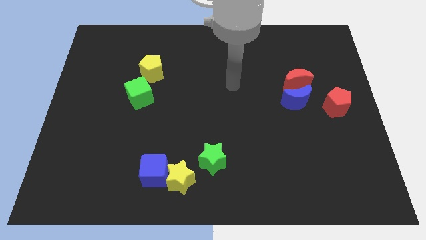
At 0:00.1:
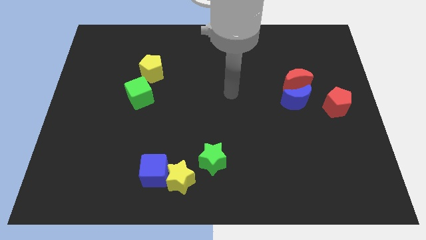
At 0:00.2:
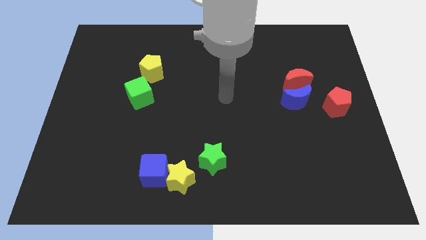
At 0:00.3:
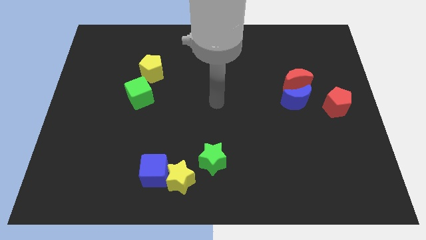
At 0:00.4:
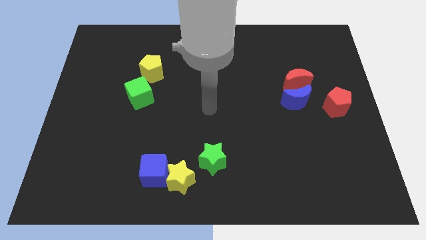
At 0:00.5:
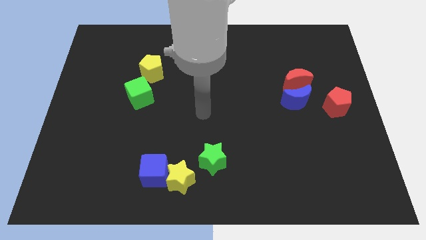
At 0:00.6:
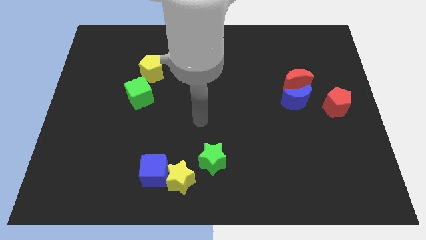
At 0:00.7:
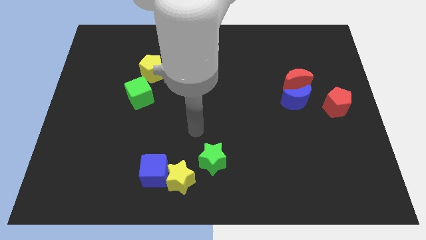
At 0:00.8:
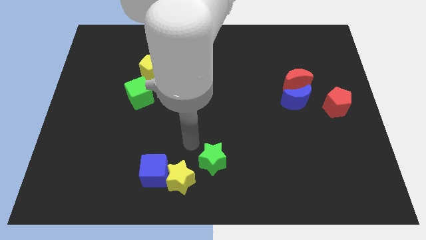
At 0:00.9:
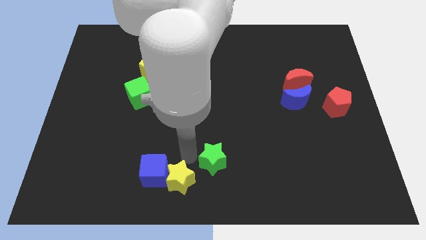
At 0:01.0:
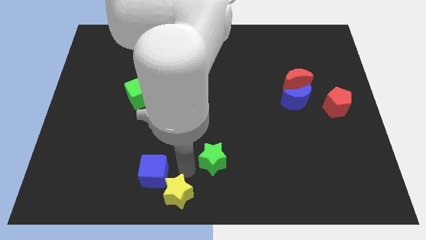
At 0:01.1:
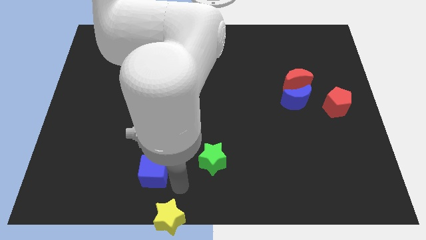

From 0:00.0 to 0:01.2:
move the blue cube away from the yellow star

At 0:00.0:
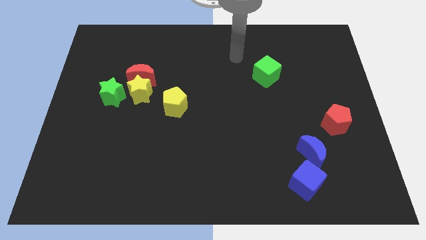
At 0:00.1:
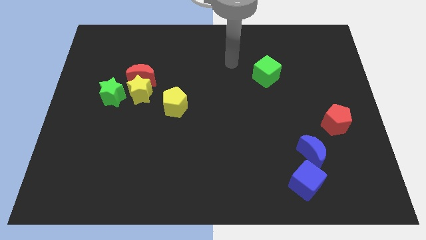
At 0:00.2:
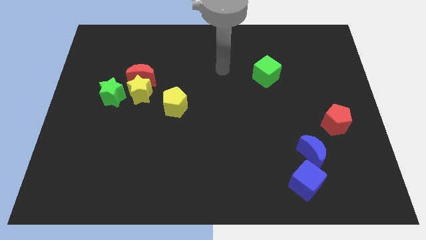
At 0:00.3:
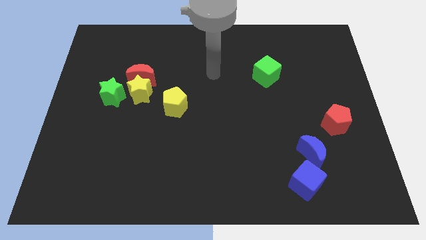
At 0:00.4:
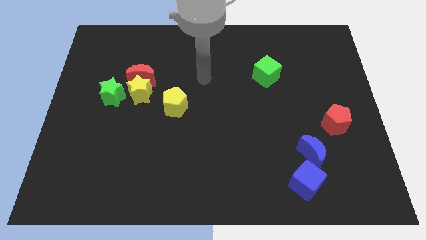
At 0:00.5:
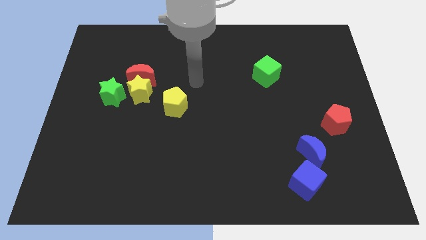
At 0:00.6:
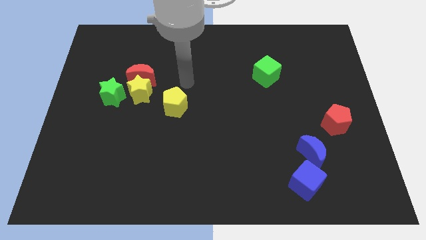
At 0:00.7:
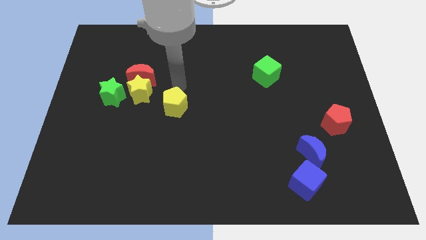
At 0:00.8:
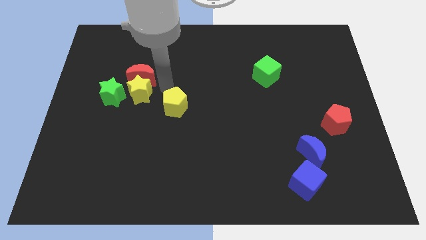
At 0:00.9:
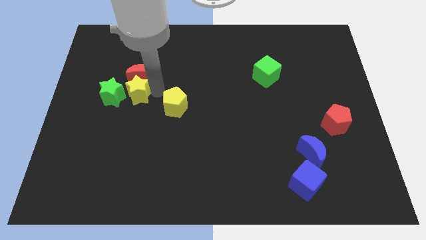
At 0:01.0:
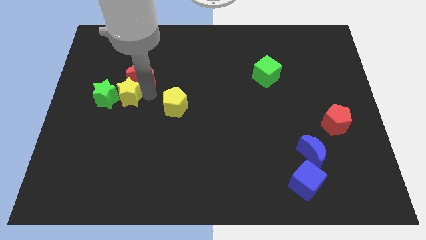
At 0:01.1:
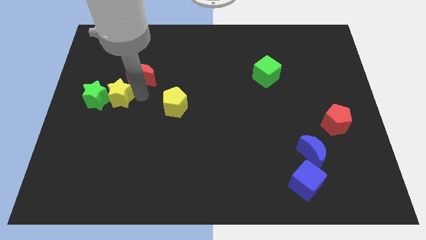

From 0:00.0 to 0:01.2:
pull the red moon apart from the yellow star and green star

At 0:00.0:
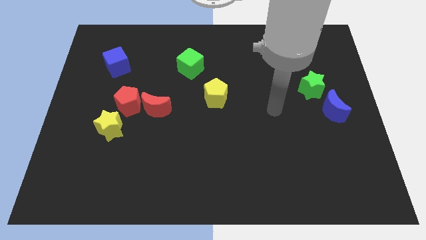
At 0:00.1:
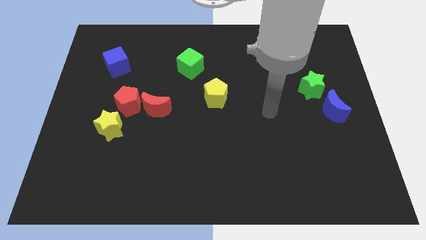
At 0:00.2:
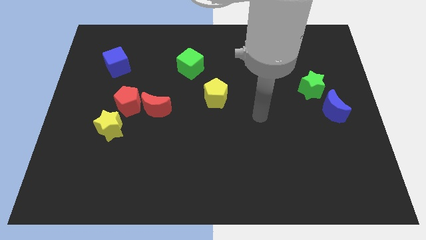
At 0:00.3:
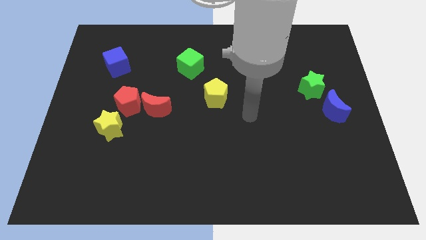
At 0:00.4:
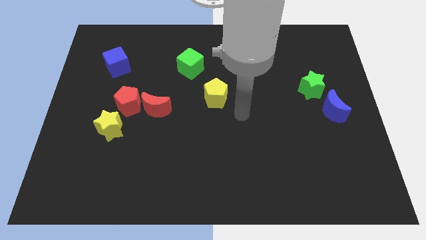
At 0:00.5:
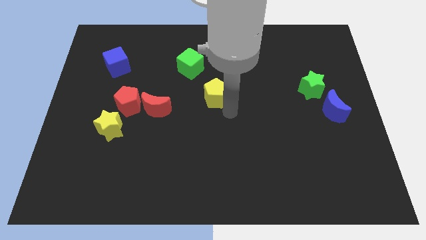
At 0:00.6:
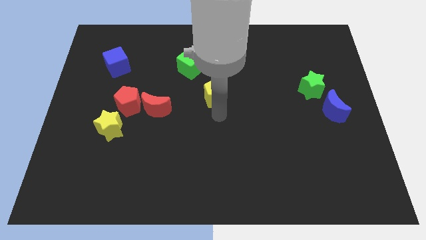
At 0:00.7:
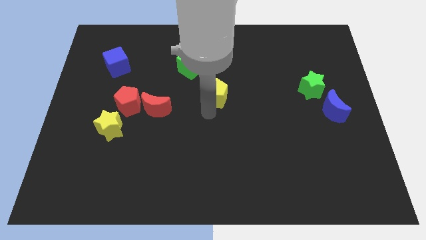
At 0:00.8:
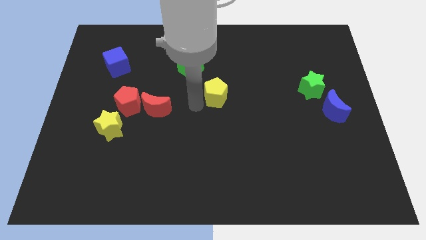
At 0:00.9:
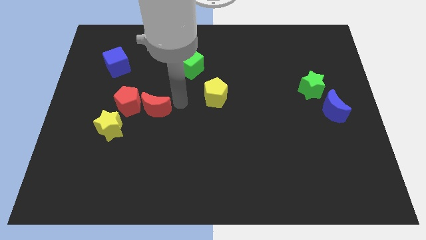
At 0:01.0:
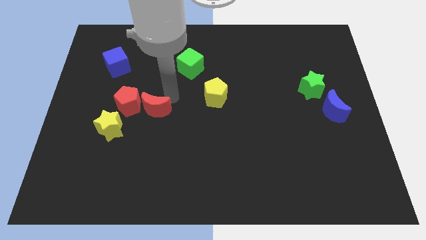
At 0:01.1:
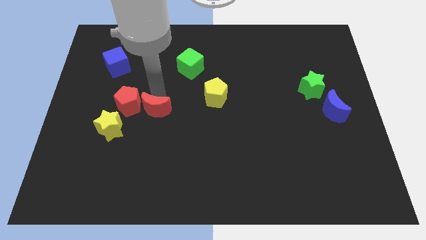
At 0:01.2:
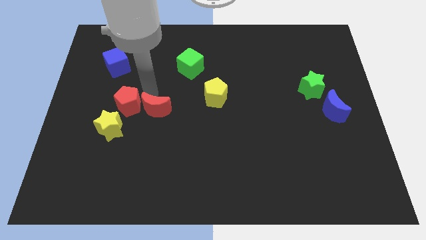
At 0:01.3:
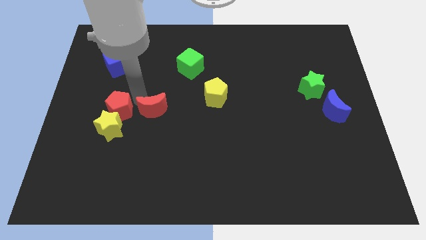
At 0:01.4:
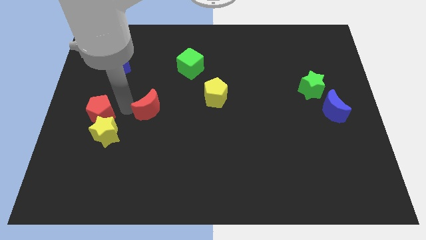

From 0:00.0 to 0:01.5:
separate the red moon from the red pentagon

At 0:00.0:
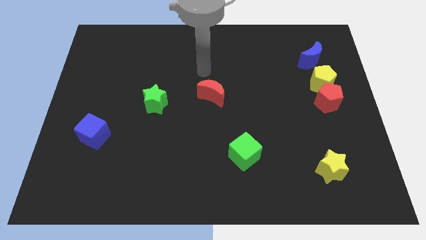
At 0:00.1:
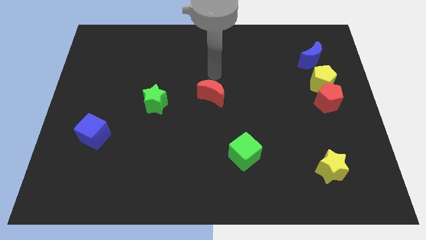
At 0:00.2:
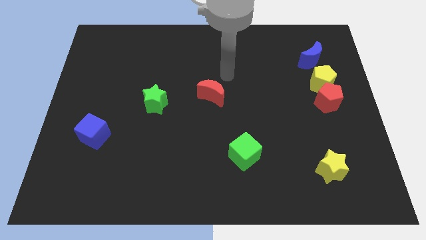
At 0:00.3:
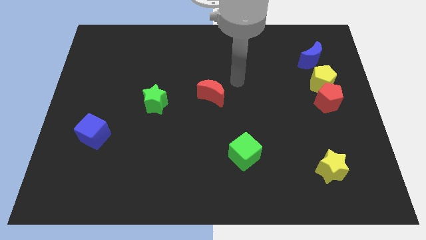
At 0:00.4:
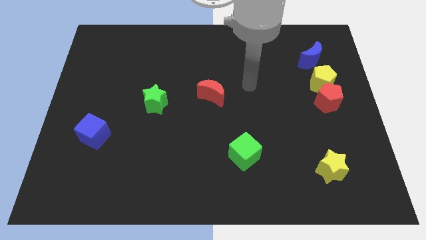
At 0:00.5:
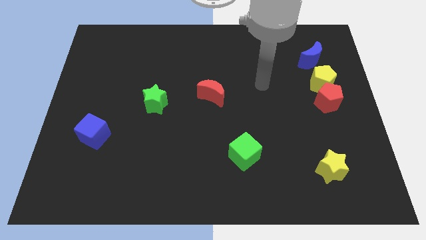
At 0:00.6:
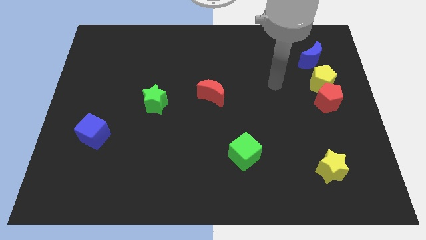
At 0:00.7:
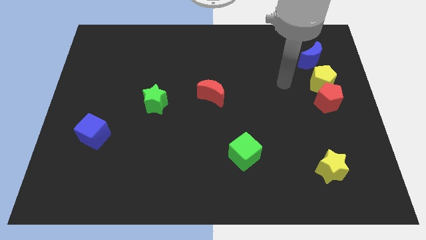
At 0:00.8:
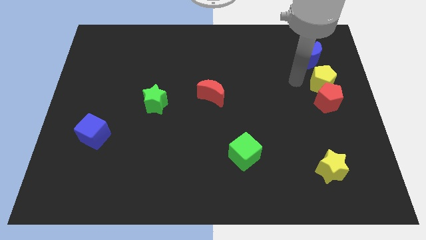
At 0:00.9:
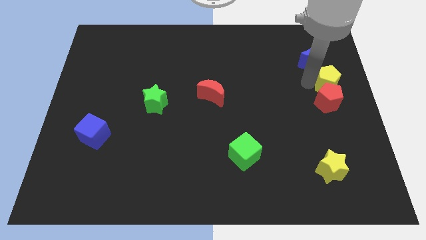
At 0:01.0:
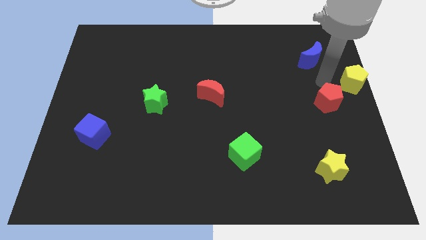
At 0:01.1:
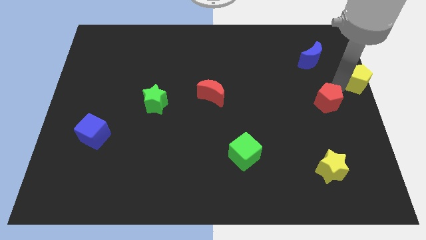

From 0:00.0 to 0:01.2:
separate the red pentagon from the yellow pentagon

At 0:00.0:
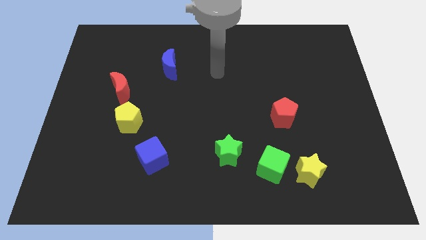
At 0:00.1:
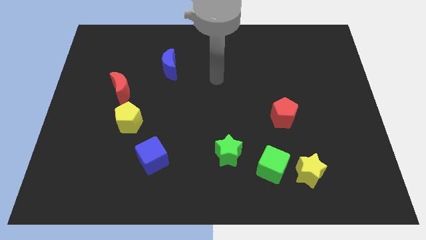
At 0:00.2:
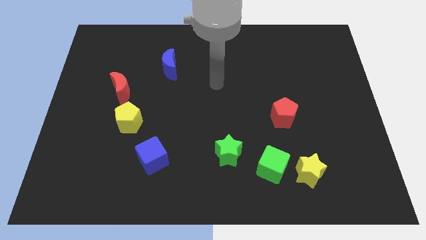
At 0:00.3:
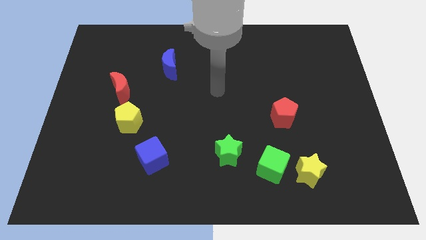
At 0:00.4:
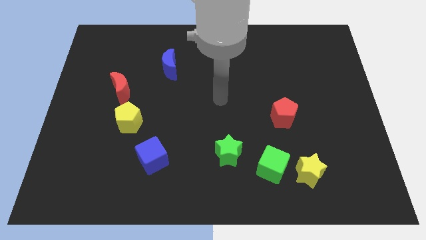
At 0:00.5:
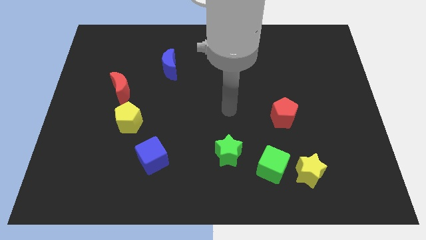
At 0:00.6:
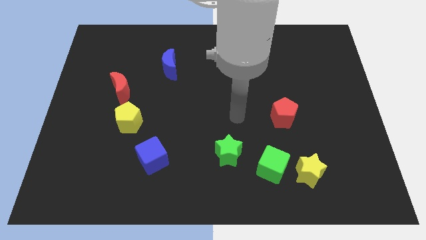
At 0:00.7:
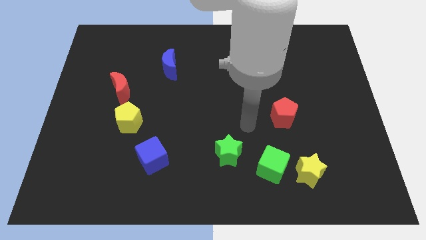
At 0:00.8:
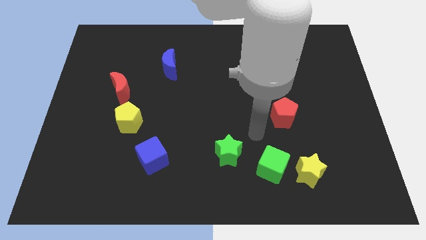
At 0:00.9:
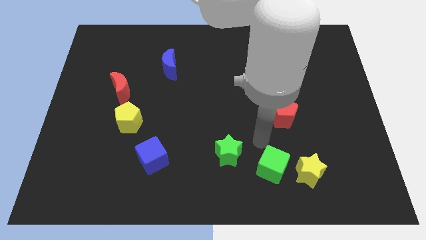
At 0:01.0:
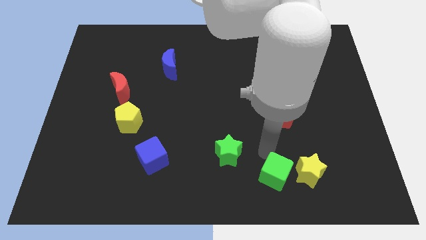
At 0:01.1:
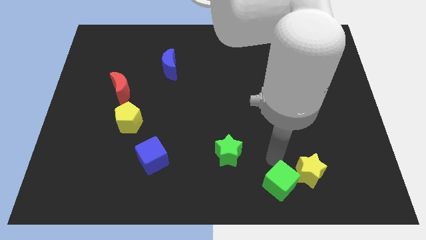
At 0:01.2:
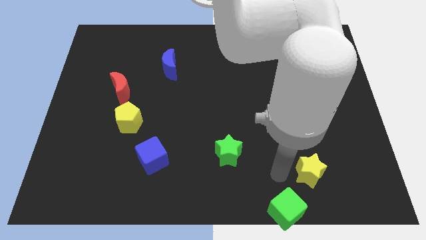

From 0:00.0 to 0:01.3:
pull the yellow star apart from the green cube

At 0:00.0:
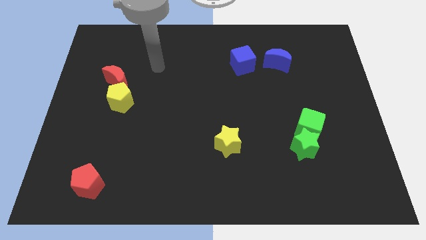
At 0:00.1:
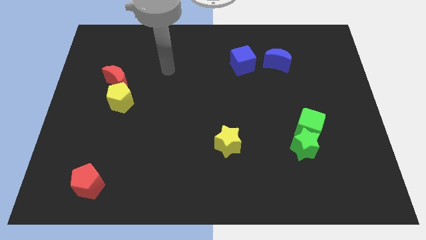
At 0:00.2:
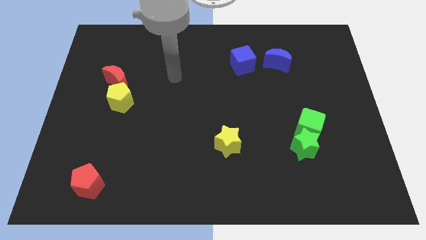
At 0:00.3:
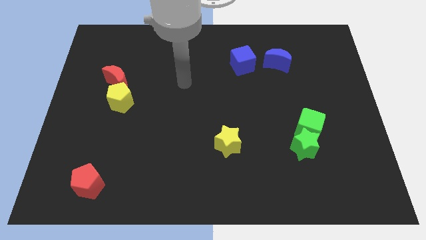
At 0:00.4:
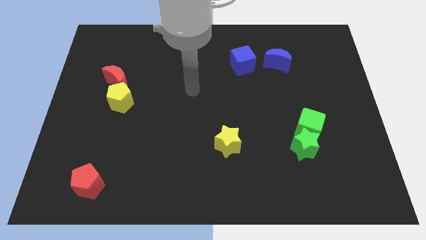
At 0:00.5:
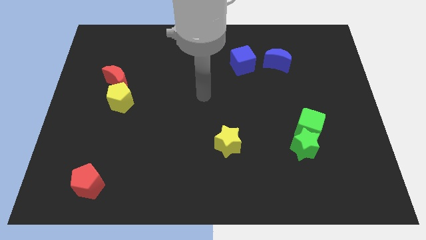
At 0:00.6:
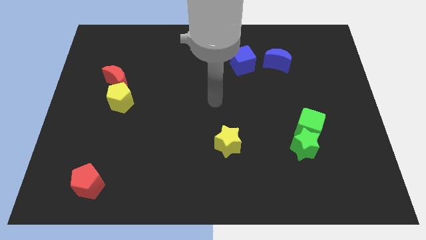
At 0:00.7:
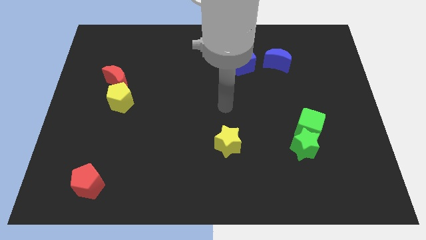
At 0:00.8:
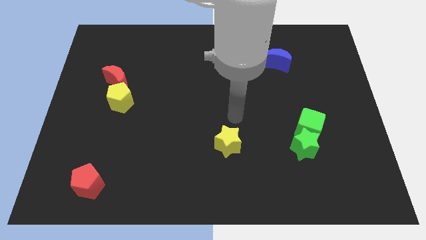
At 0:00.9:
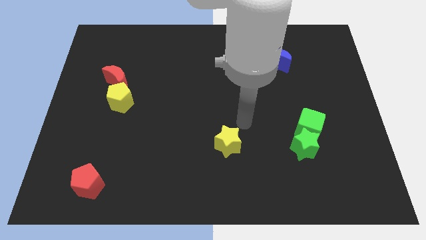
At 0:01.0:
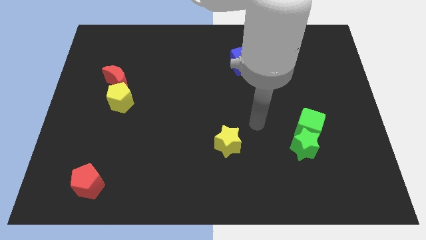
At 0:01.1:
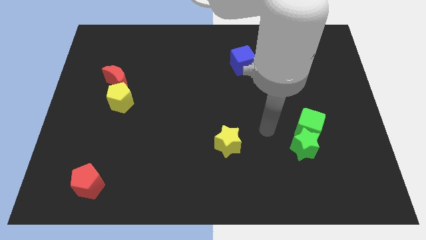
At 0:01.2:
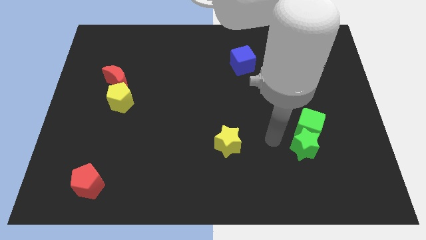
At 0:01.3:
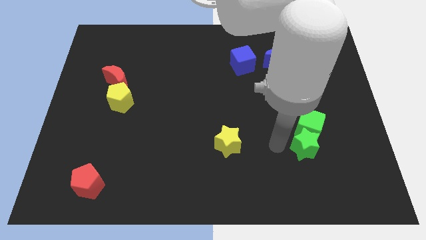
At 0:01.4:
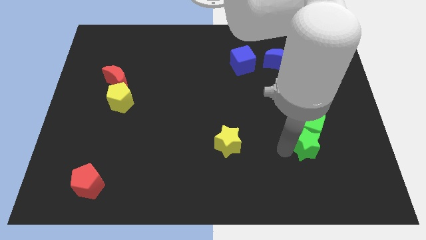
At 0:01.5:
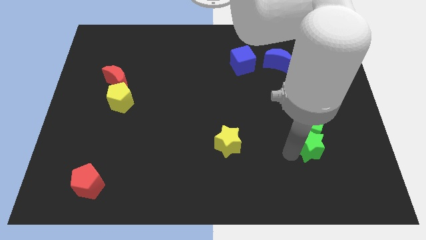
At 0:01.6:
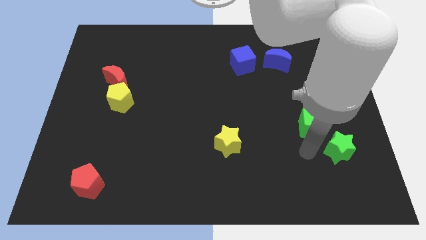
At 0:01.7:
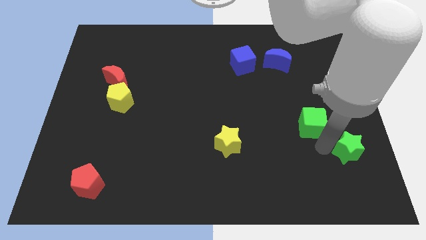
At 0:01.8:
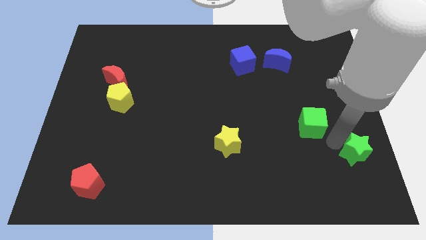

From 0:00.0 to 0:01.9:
move the green cube away from the green star

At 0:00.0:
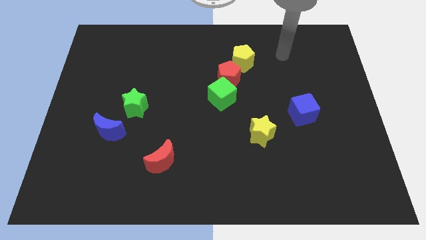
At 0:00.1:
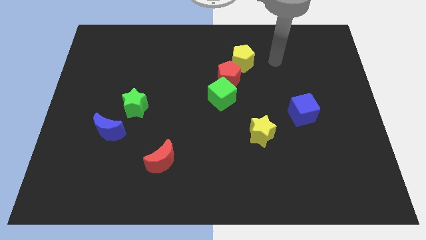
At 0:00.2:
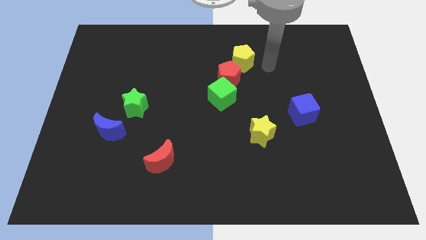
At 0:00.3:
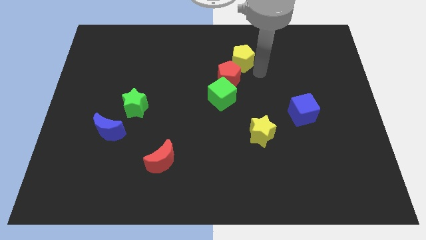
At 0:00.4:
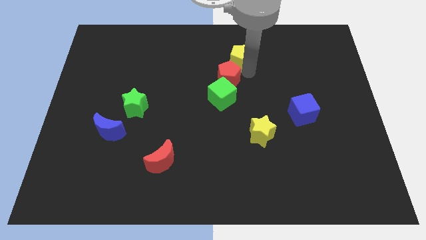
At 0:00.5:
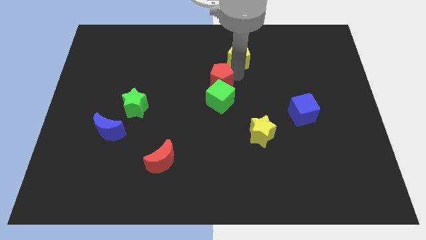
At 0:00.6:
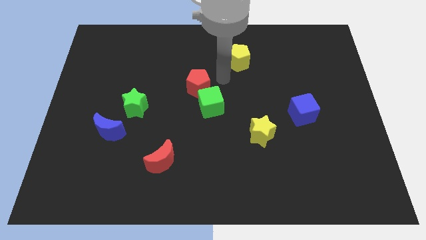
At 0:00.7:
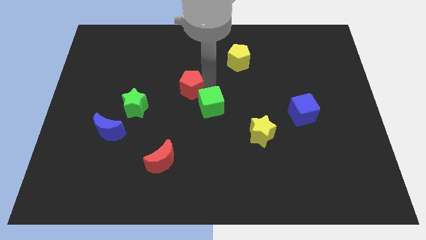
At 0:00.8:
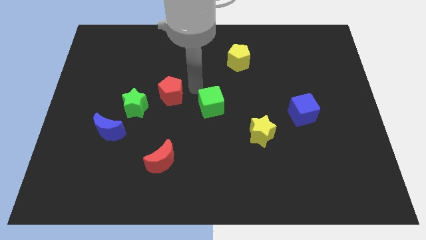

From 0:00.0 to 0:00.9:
separate the green cube from the red pentagon
